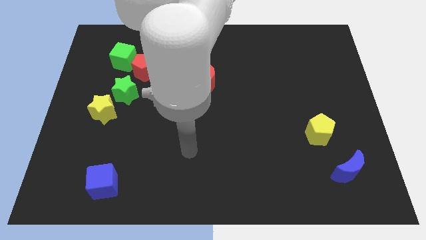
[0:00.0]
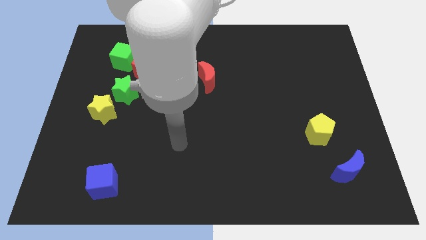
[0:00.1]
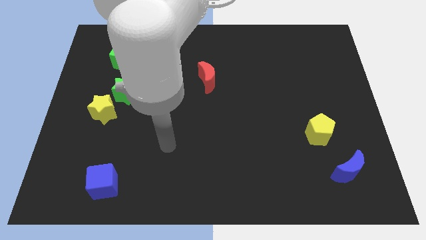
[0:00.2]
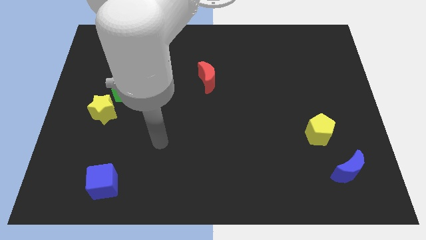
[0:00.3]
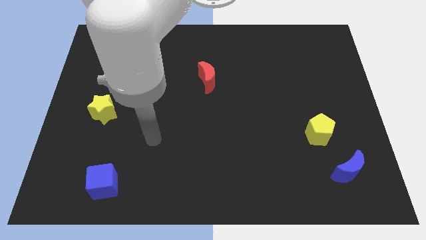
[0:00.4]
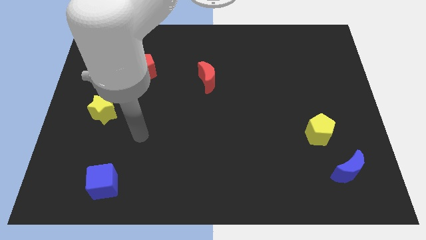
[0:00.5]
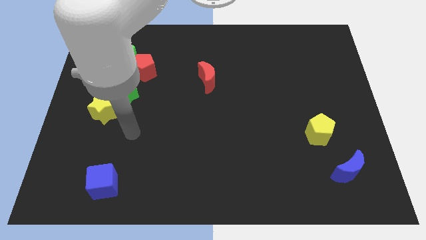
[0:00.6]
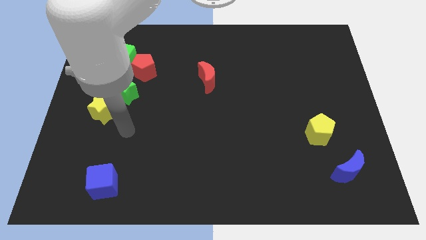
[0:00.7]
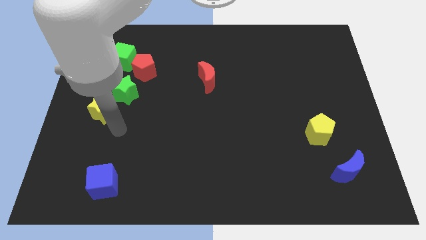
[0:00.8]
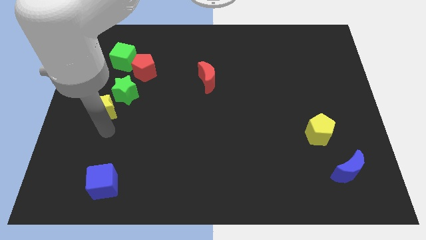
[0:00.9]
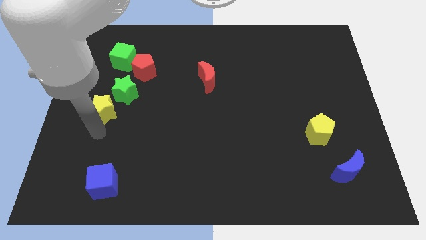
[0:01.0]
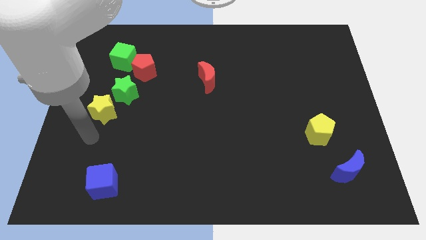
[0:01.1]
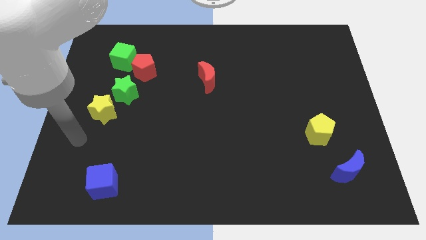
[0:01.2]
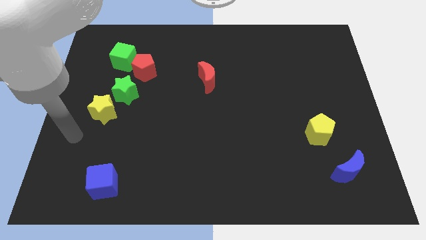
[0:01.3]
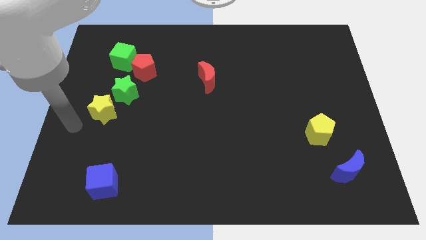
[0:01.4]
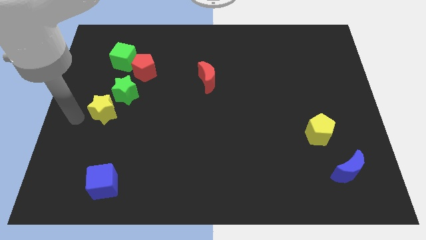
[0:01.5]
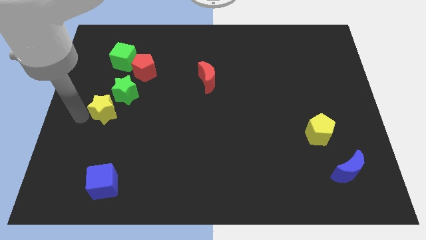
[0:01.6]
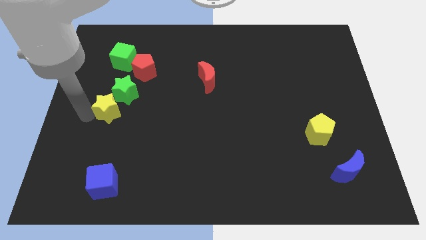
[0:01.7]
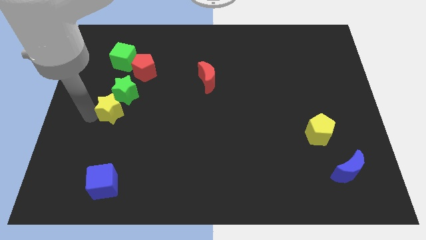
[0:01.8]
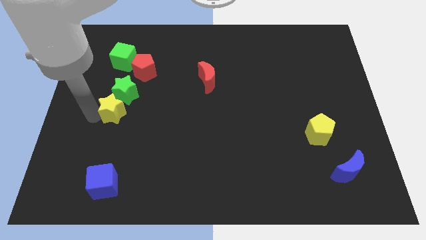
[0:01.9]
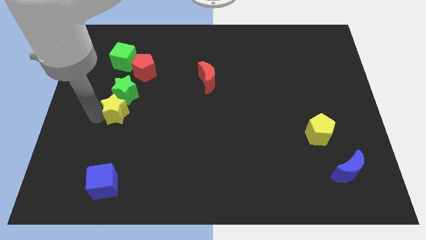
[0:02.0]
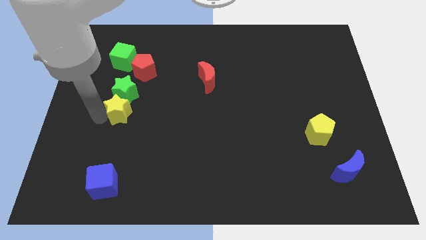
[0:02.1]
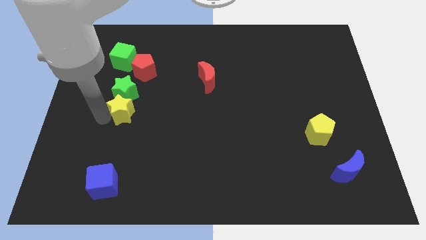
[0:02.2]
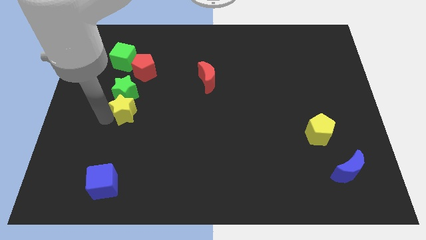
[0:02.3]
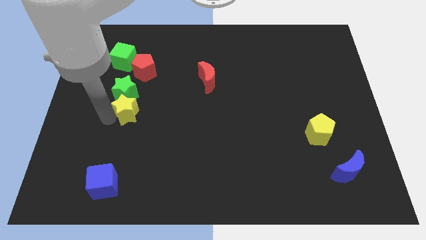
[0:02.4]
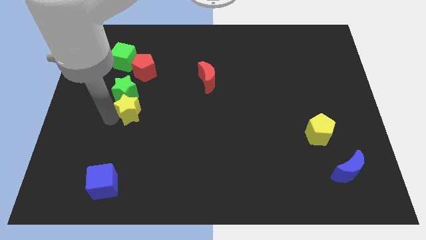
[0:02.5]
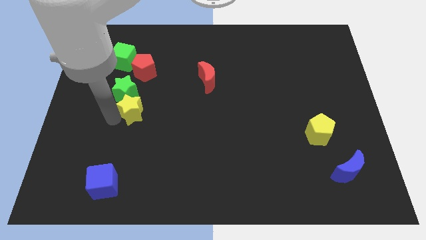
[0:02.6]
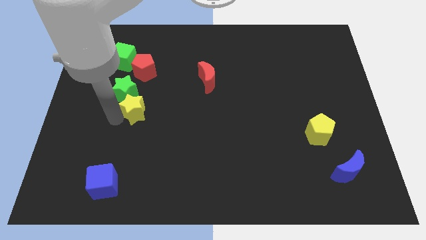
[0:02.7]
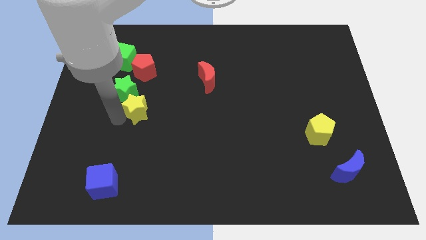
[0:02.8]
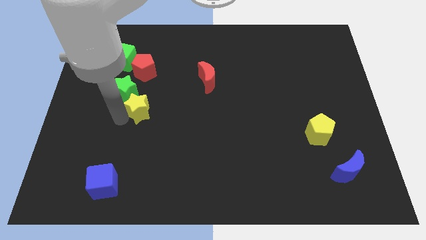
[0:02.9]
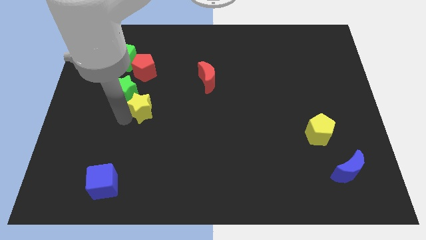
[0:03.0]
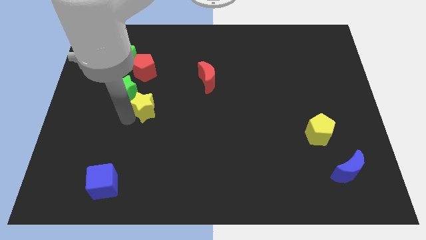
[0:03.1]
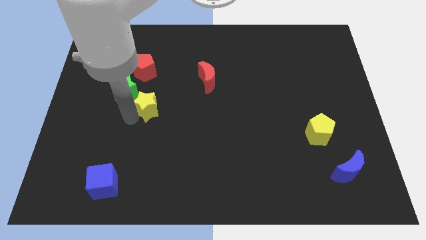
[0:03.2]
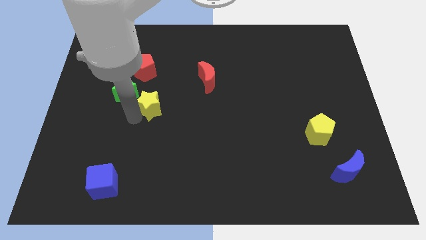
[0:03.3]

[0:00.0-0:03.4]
push the yellow star slightly upwards and right

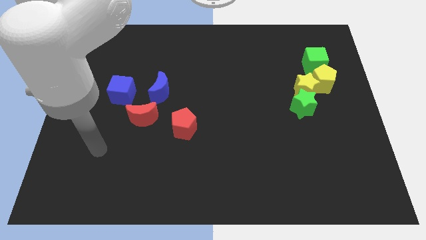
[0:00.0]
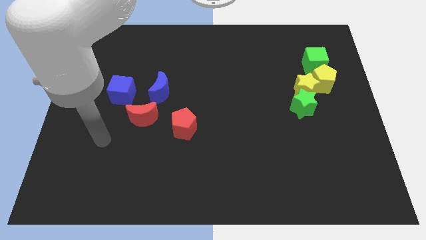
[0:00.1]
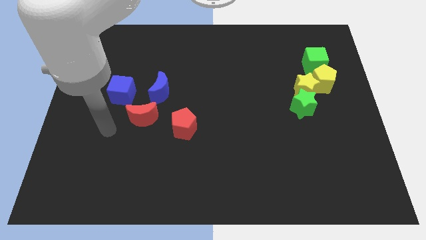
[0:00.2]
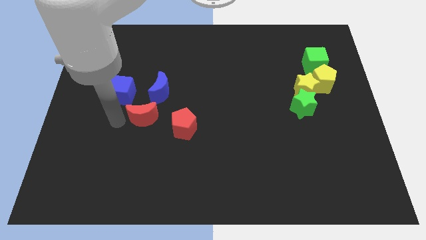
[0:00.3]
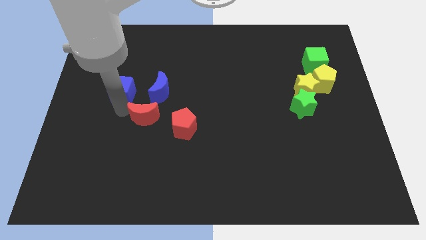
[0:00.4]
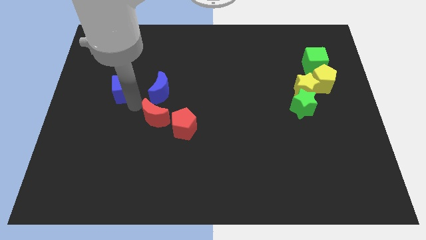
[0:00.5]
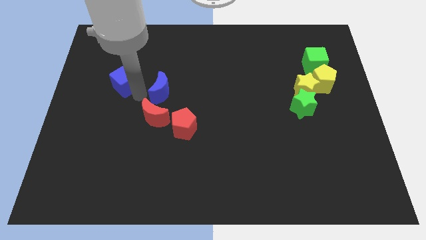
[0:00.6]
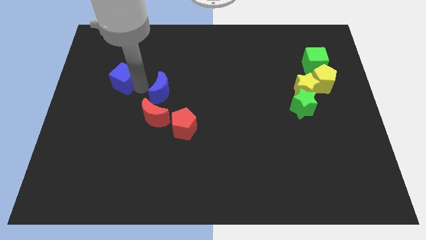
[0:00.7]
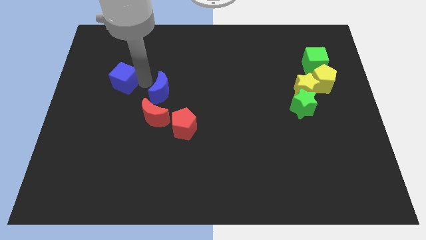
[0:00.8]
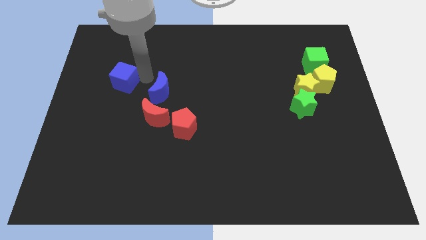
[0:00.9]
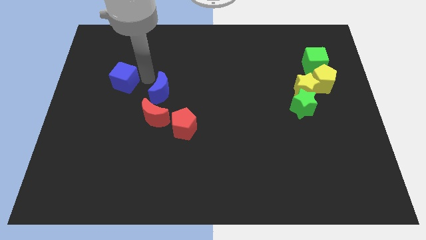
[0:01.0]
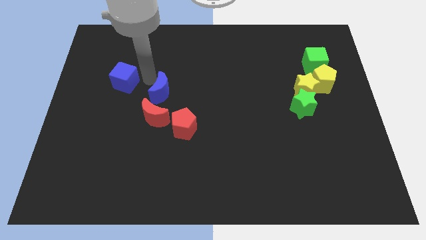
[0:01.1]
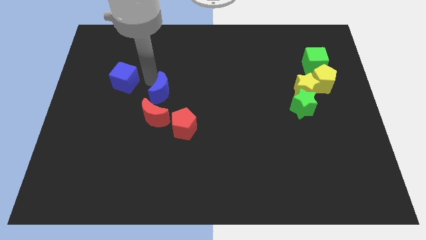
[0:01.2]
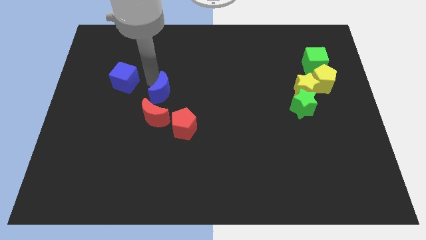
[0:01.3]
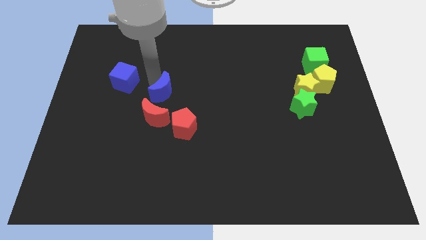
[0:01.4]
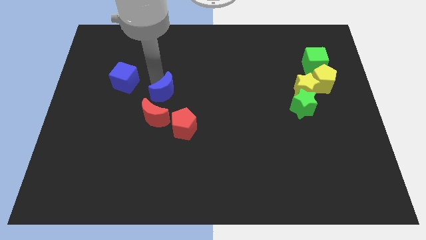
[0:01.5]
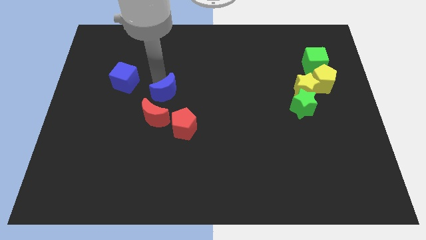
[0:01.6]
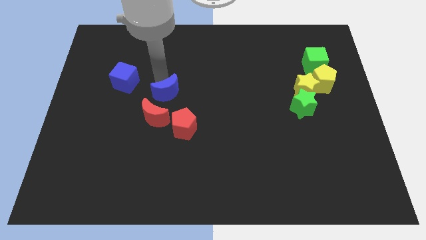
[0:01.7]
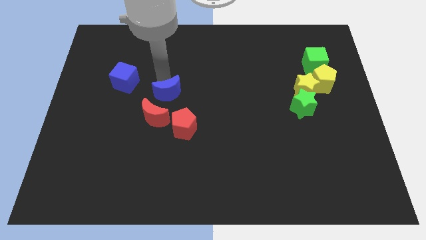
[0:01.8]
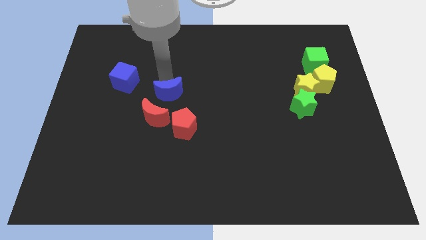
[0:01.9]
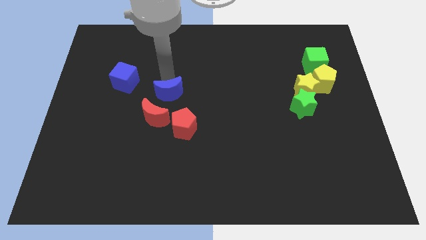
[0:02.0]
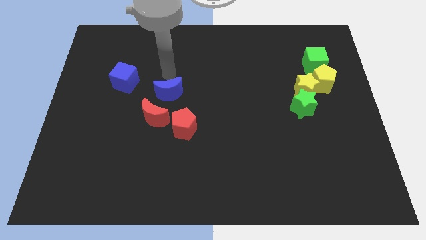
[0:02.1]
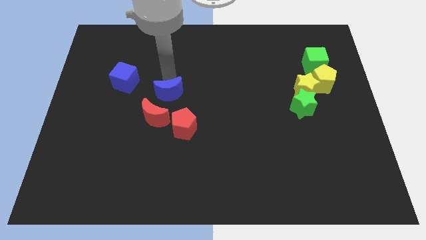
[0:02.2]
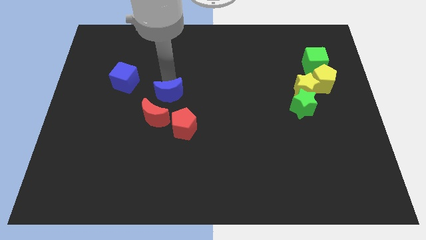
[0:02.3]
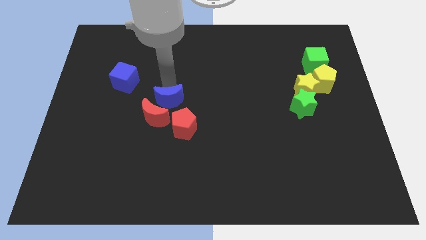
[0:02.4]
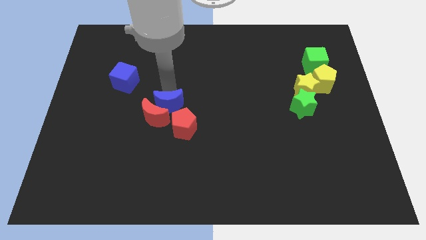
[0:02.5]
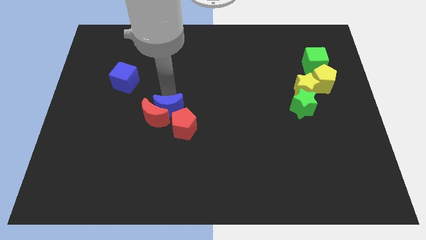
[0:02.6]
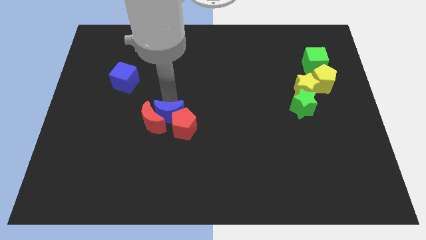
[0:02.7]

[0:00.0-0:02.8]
slightly push the blue moon down

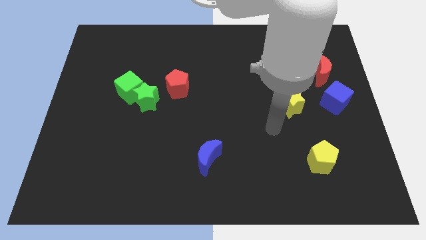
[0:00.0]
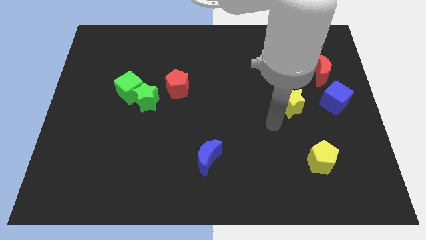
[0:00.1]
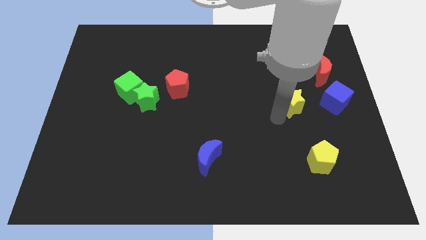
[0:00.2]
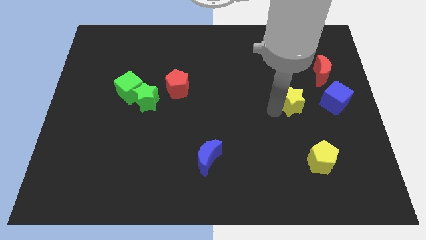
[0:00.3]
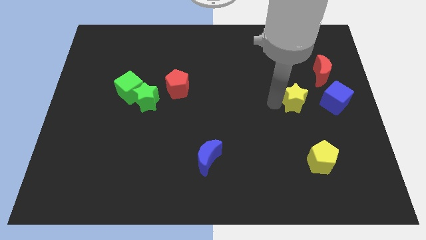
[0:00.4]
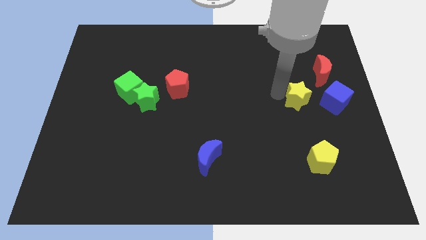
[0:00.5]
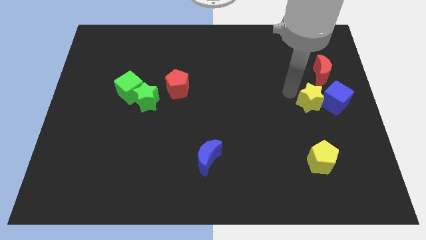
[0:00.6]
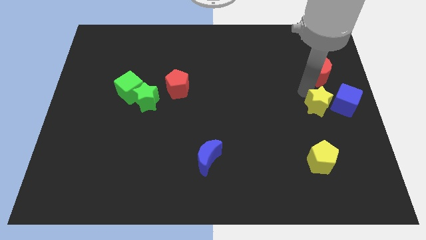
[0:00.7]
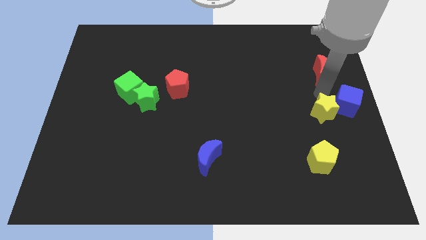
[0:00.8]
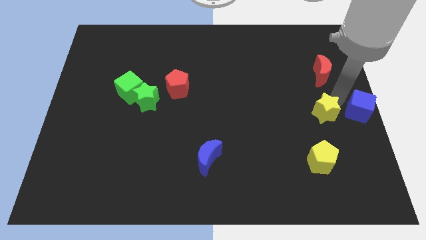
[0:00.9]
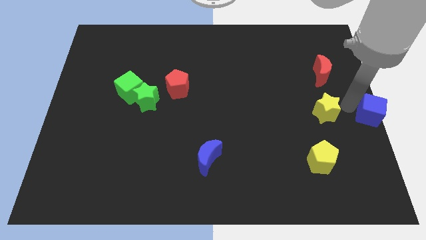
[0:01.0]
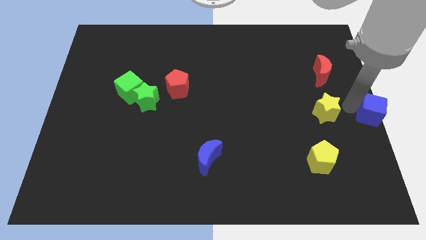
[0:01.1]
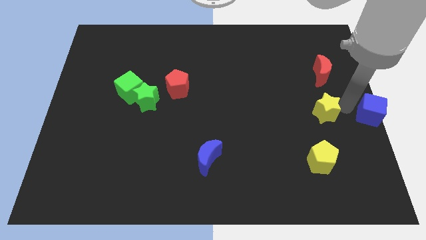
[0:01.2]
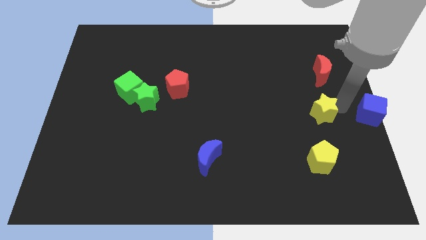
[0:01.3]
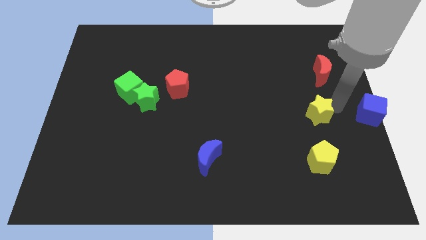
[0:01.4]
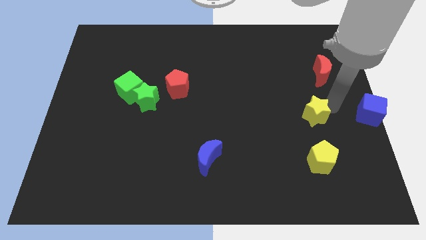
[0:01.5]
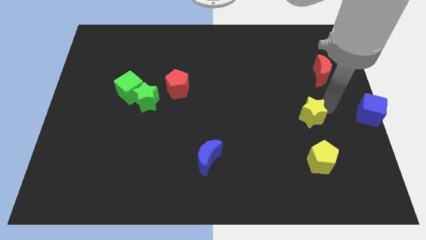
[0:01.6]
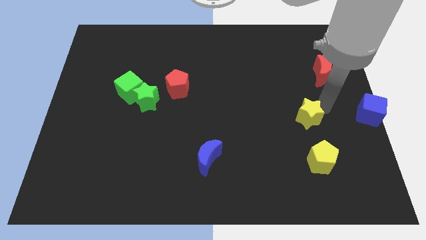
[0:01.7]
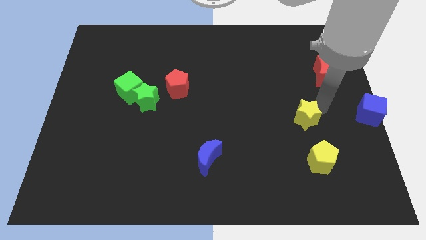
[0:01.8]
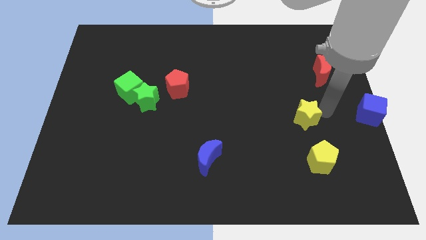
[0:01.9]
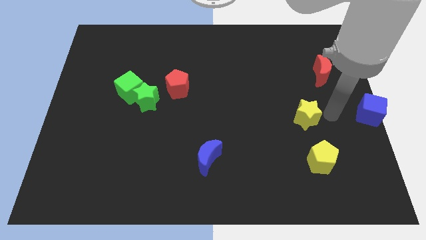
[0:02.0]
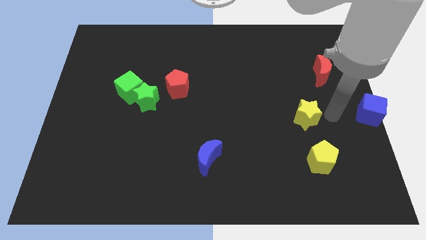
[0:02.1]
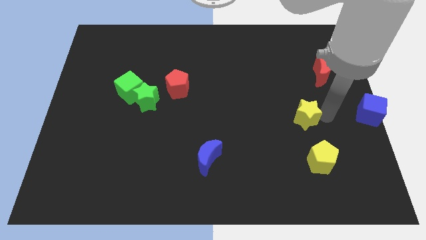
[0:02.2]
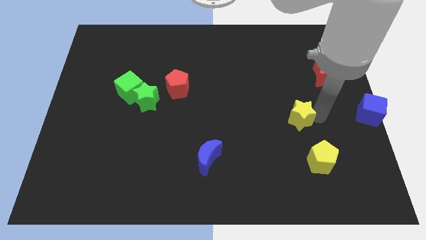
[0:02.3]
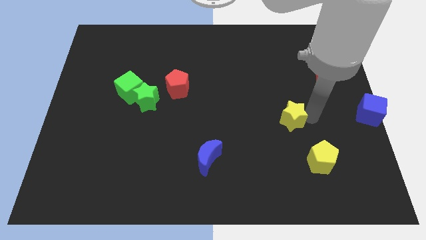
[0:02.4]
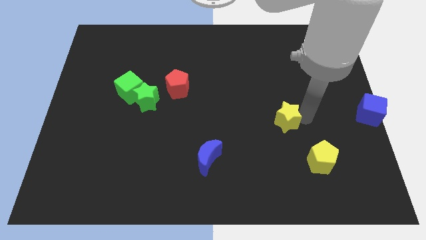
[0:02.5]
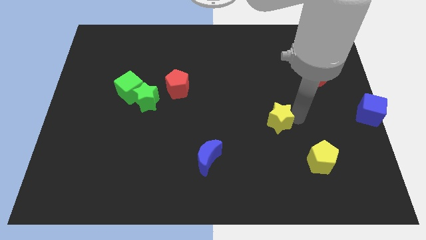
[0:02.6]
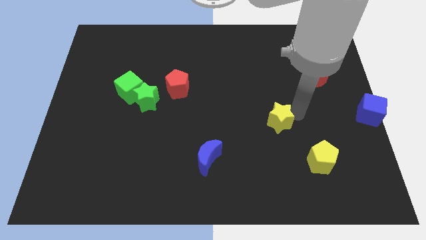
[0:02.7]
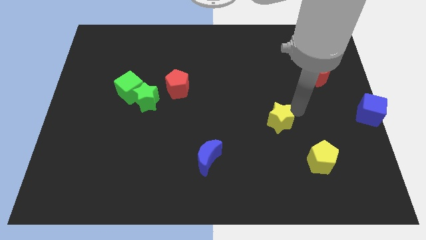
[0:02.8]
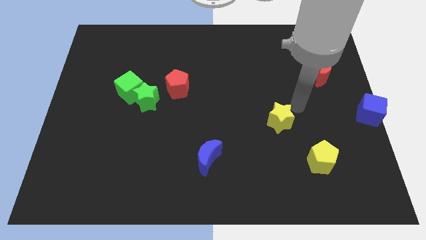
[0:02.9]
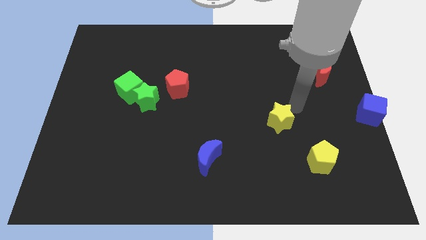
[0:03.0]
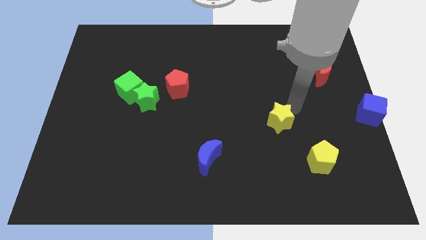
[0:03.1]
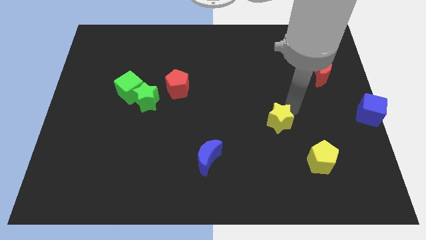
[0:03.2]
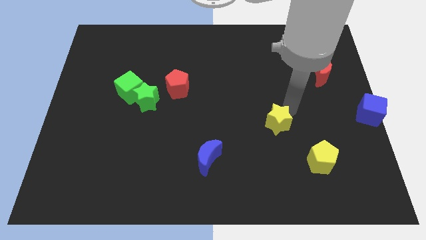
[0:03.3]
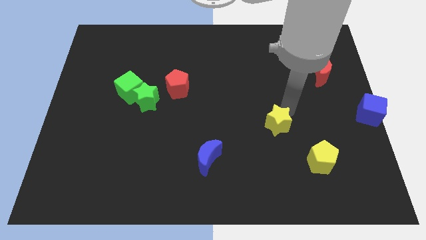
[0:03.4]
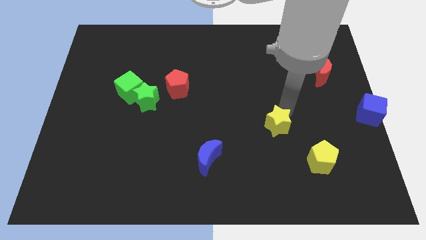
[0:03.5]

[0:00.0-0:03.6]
move the yellow star downwards and to the left slightly
